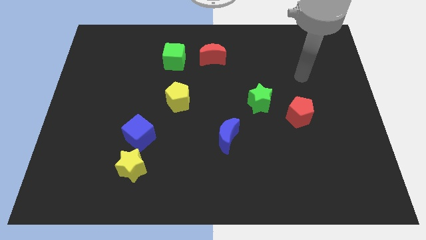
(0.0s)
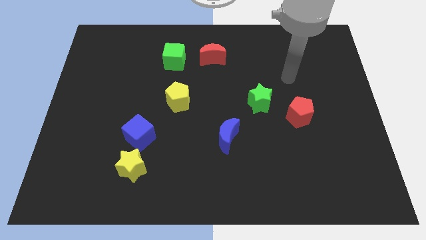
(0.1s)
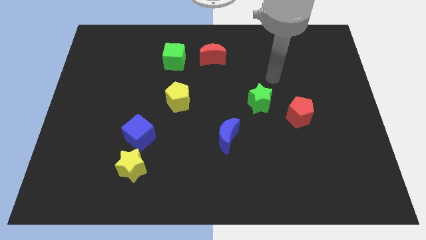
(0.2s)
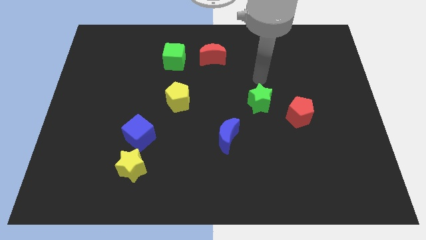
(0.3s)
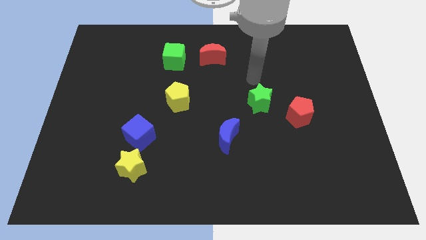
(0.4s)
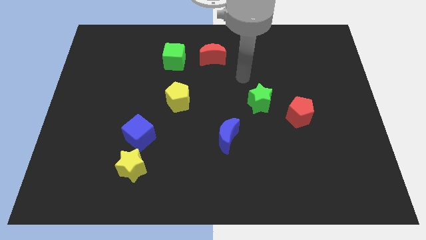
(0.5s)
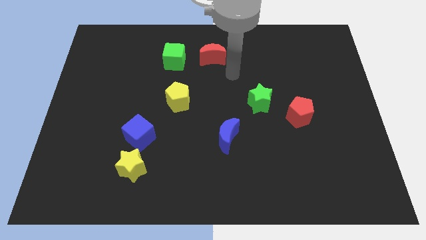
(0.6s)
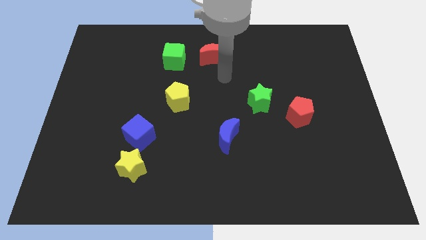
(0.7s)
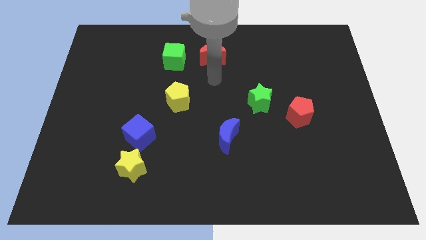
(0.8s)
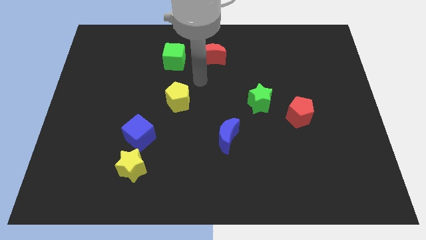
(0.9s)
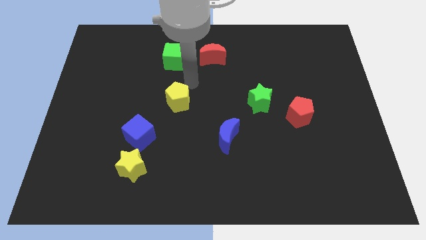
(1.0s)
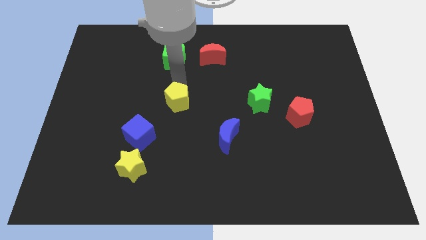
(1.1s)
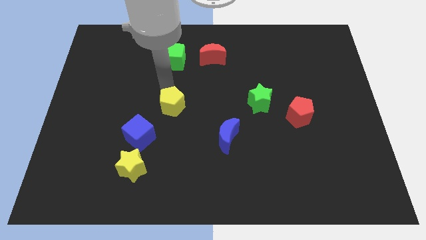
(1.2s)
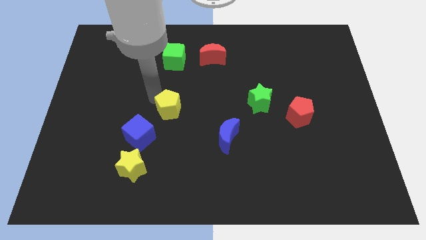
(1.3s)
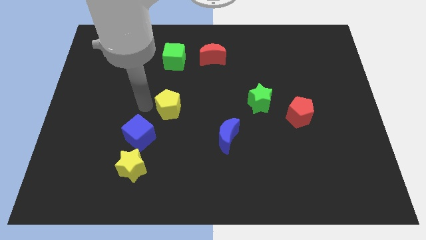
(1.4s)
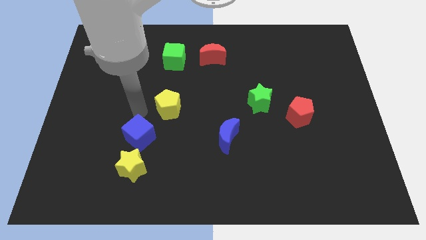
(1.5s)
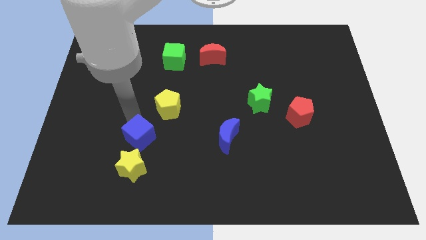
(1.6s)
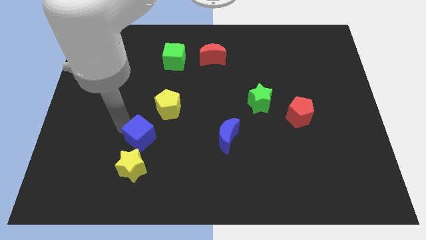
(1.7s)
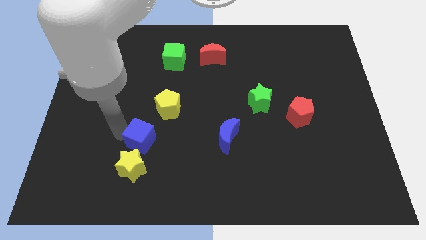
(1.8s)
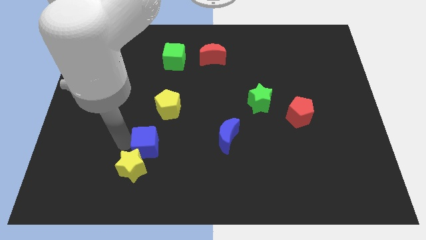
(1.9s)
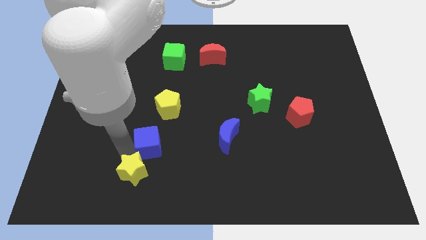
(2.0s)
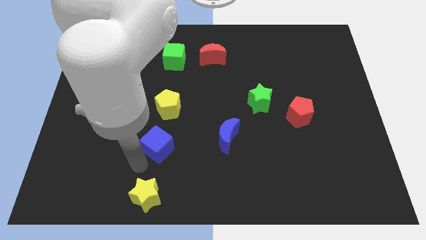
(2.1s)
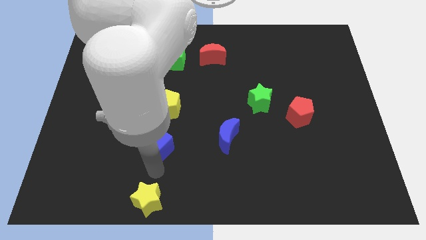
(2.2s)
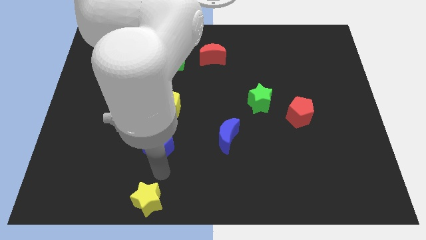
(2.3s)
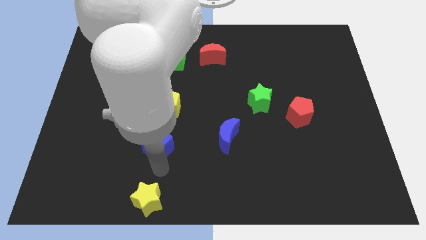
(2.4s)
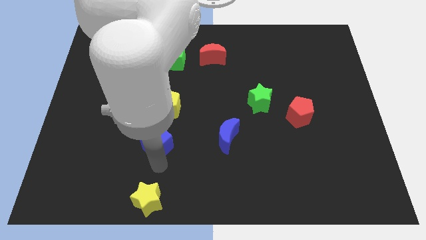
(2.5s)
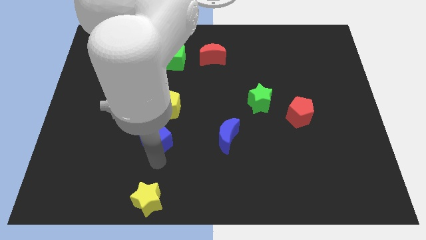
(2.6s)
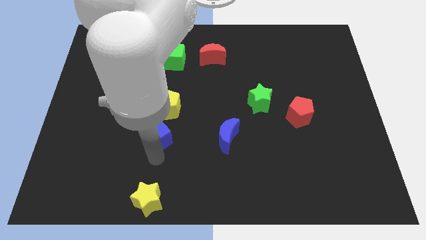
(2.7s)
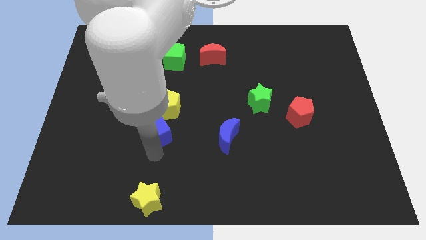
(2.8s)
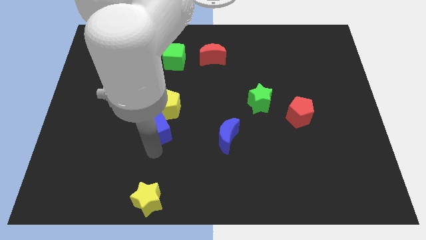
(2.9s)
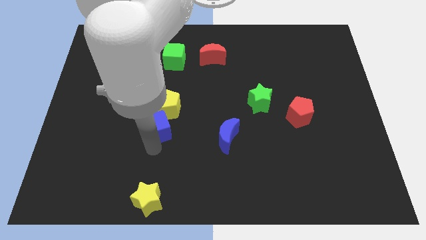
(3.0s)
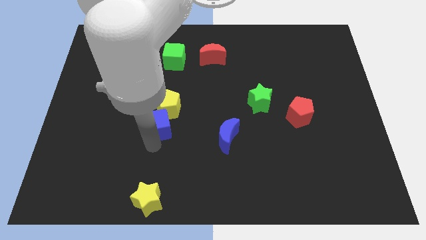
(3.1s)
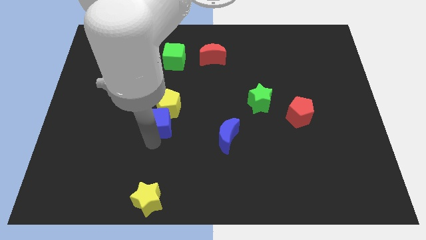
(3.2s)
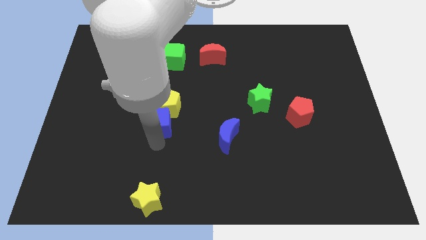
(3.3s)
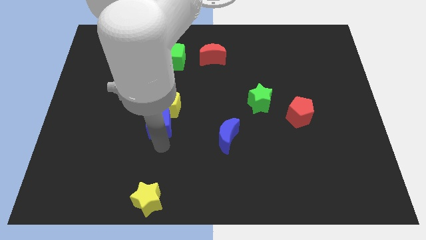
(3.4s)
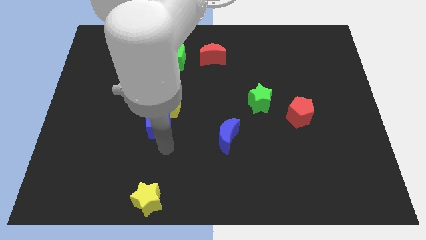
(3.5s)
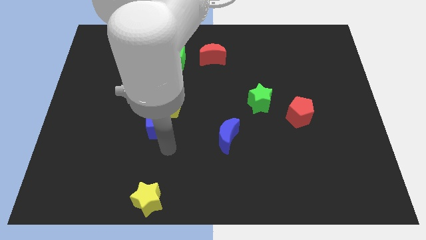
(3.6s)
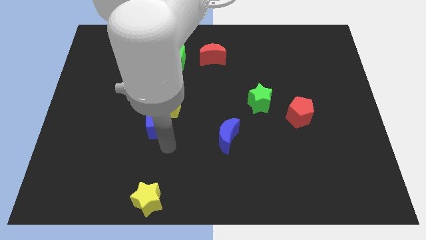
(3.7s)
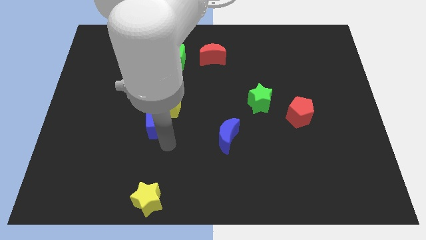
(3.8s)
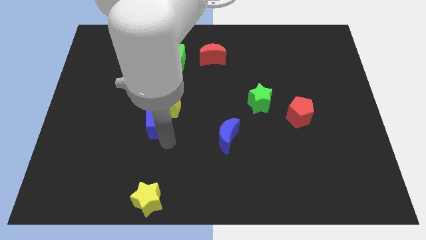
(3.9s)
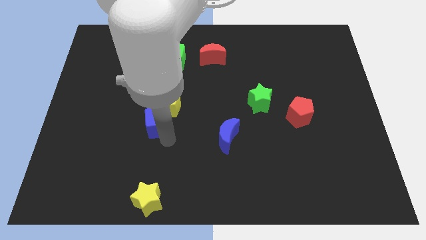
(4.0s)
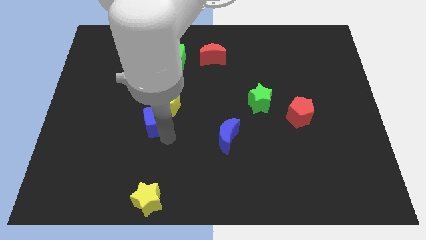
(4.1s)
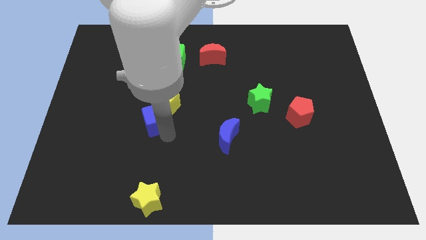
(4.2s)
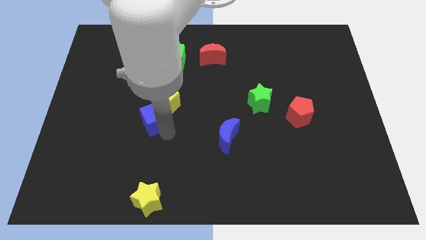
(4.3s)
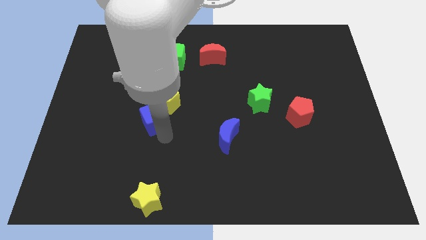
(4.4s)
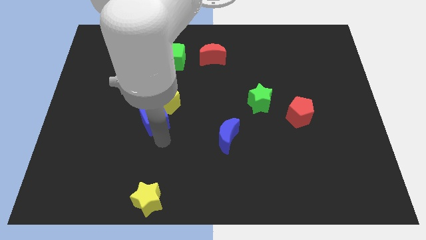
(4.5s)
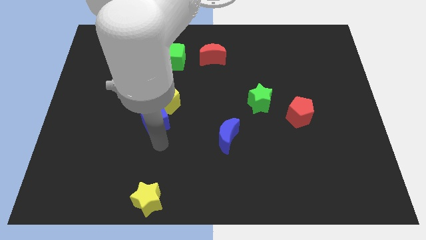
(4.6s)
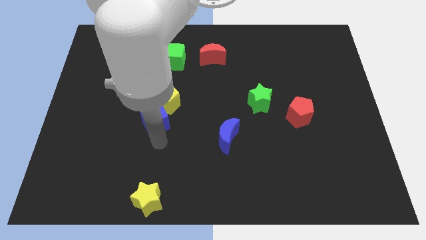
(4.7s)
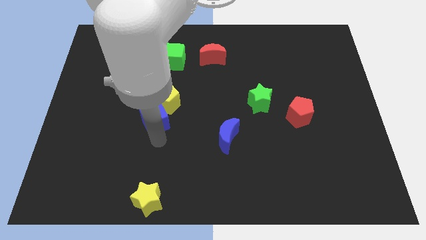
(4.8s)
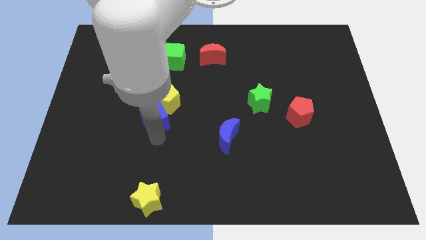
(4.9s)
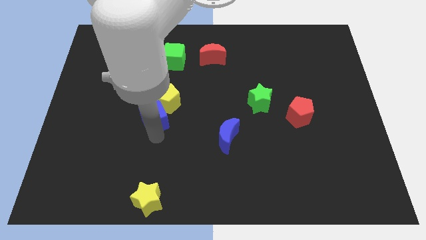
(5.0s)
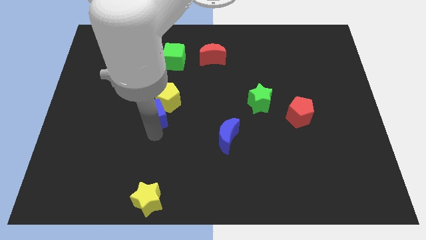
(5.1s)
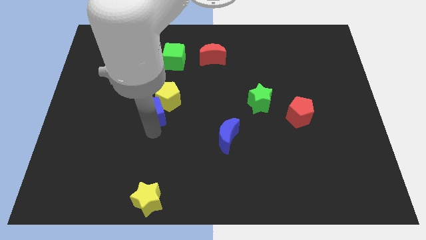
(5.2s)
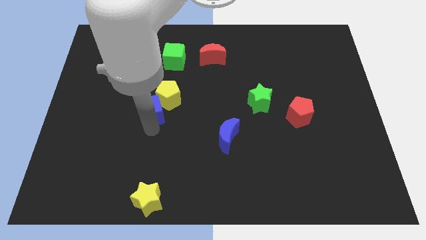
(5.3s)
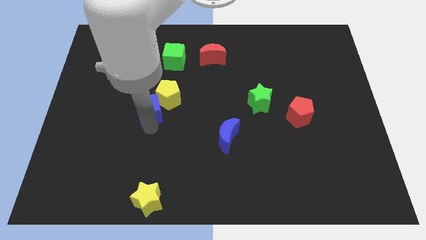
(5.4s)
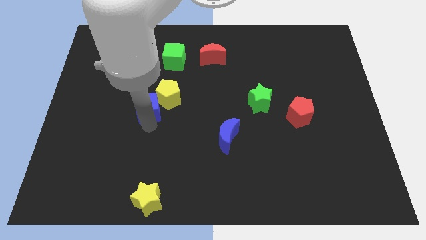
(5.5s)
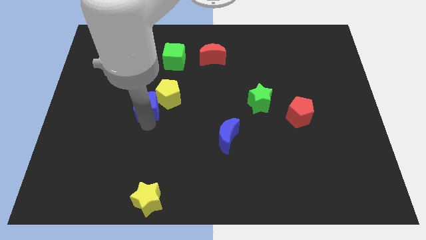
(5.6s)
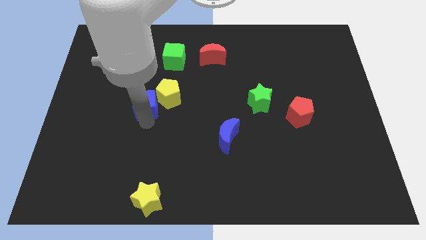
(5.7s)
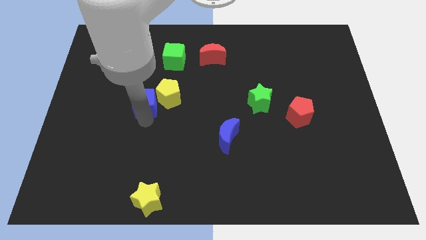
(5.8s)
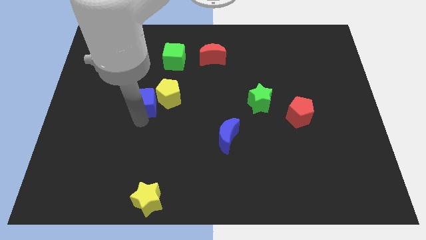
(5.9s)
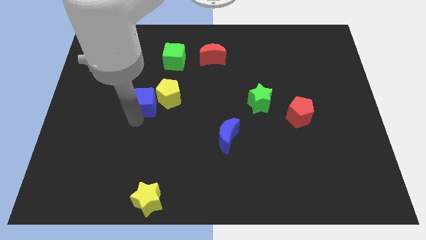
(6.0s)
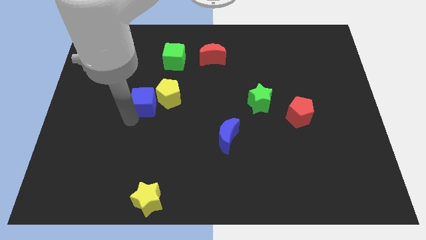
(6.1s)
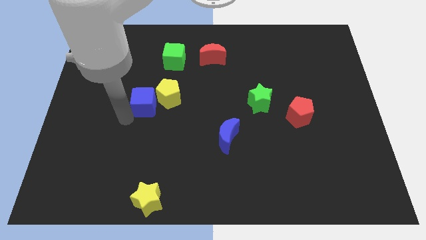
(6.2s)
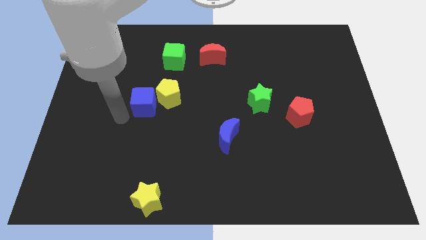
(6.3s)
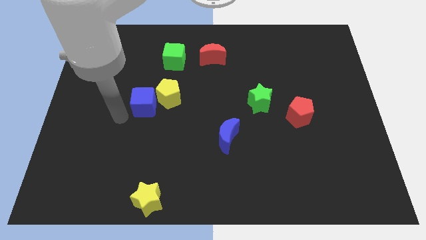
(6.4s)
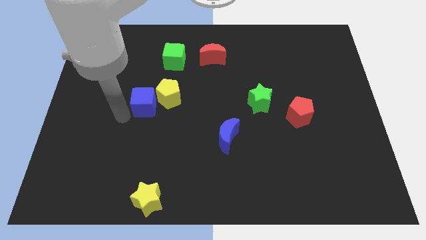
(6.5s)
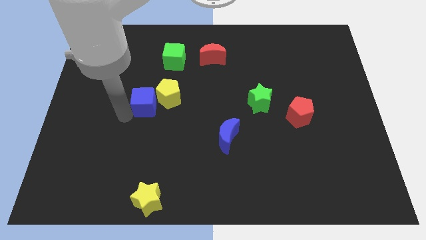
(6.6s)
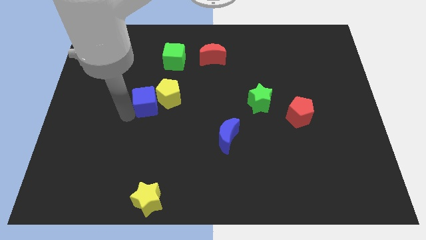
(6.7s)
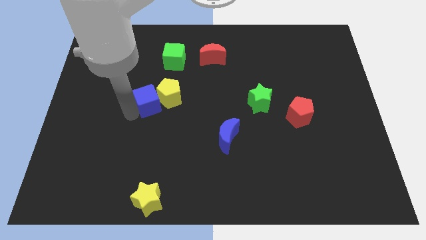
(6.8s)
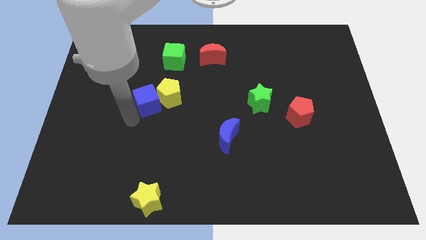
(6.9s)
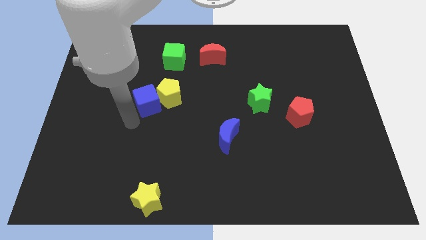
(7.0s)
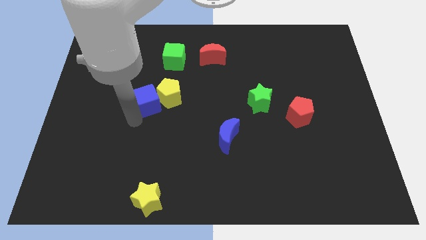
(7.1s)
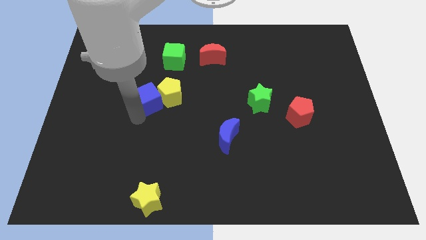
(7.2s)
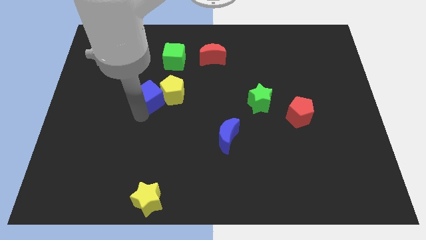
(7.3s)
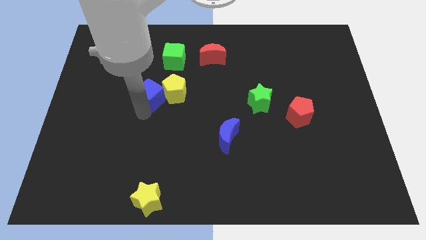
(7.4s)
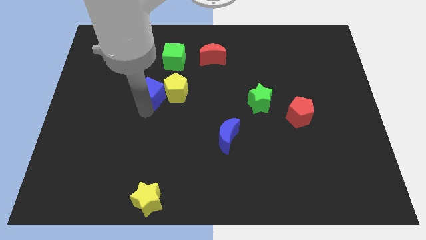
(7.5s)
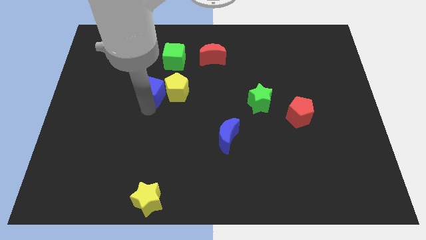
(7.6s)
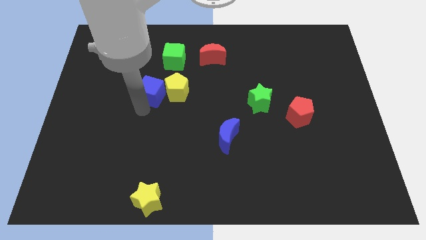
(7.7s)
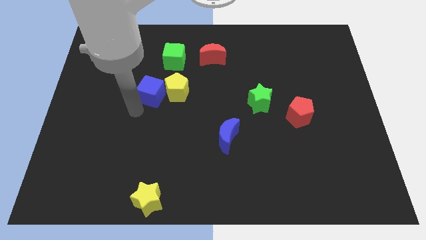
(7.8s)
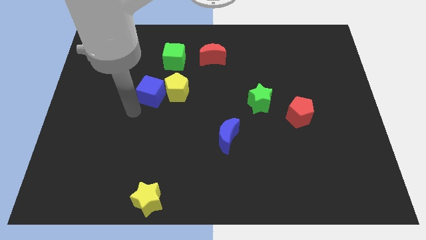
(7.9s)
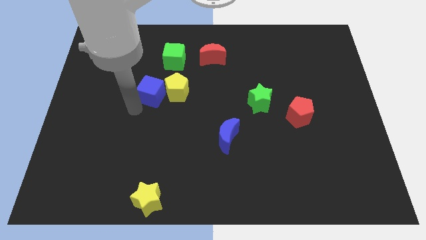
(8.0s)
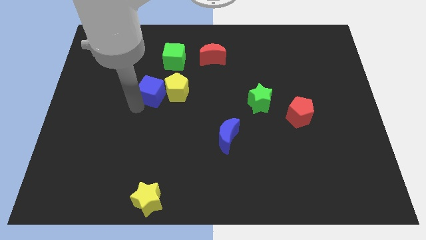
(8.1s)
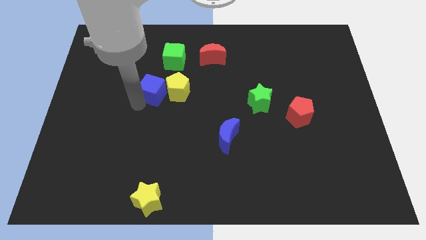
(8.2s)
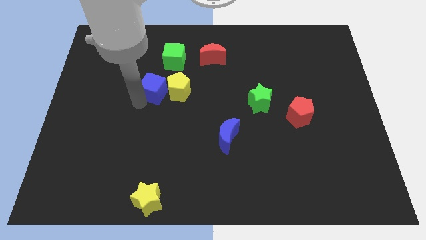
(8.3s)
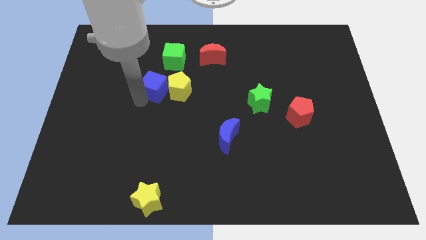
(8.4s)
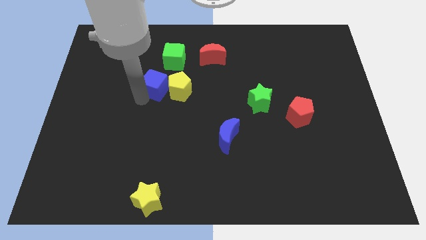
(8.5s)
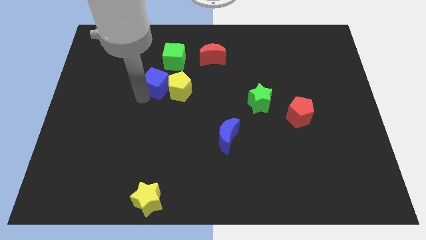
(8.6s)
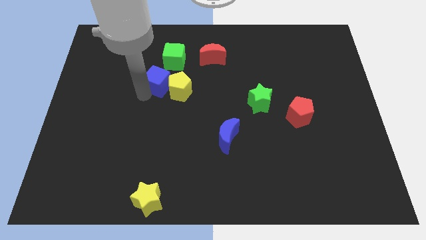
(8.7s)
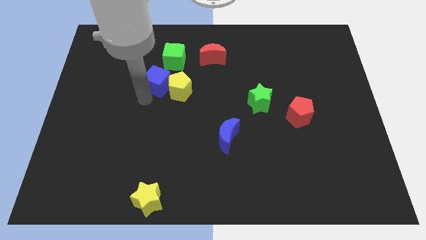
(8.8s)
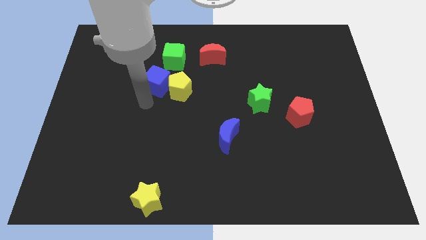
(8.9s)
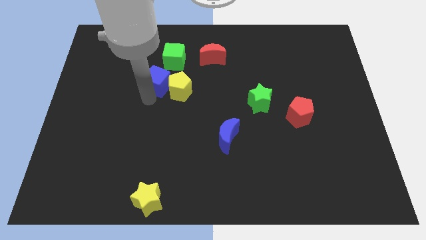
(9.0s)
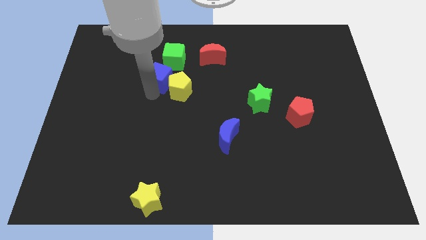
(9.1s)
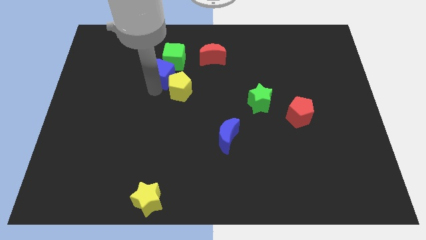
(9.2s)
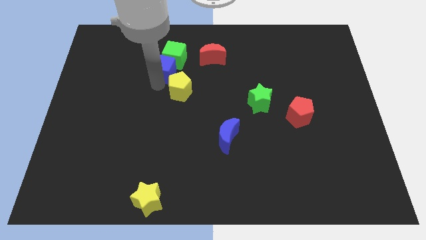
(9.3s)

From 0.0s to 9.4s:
move the blue cube next to the green cube
